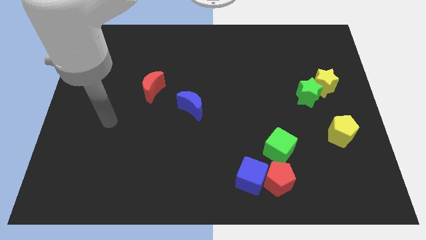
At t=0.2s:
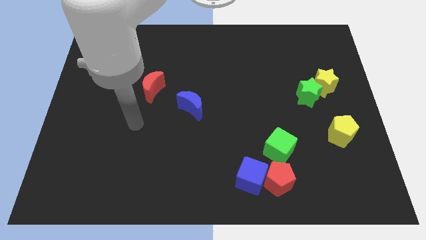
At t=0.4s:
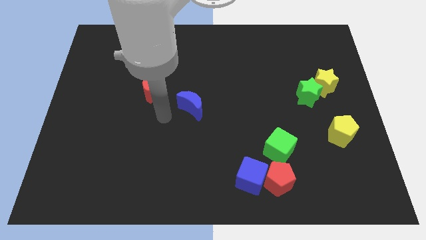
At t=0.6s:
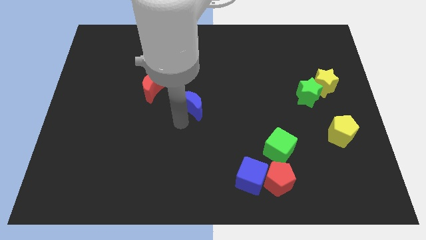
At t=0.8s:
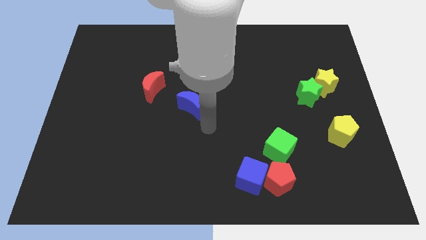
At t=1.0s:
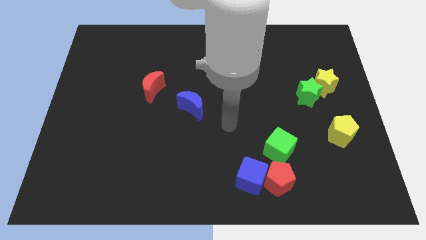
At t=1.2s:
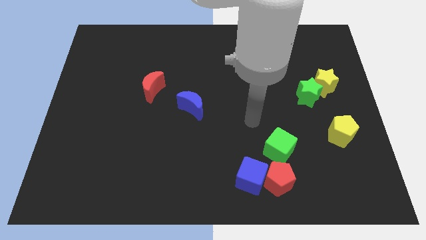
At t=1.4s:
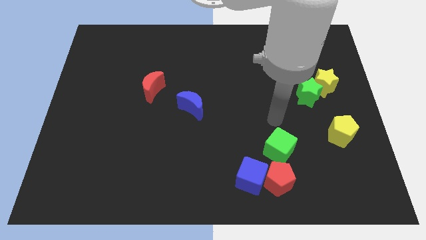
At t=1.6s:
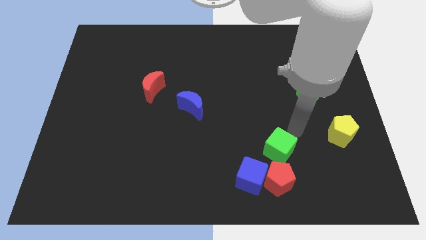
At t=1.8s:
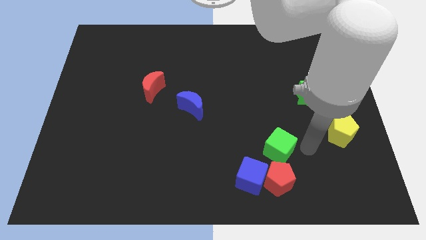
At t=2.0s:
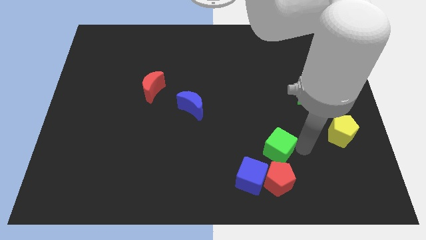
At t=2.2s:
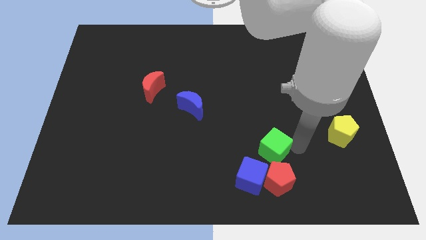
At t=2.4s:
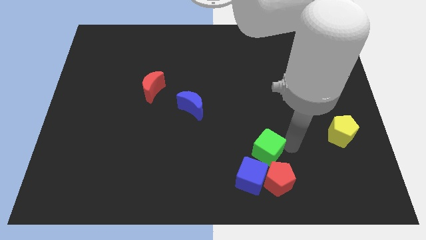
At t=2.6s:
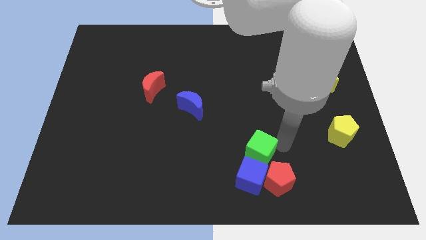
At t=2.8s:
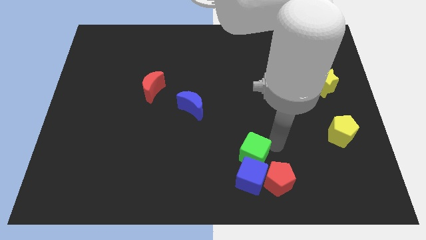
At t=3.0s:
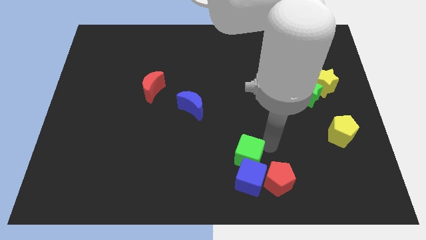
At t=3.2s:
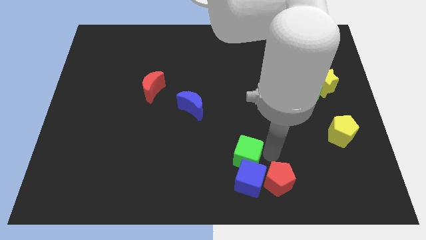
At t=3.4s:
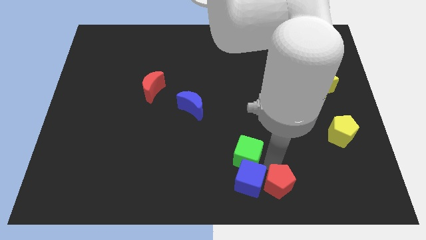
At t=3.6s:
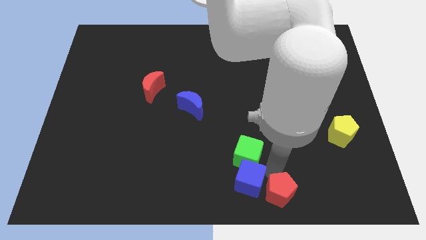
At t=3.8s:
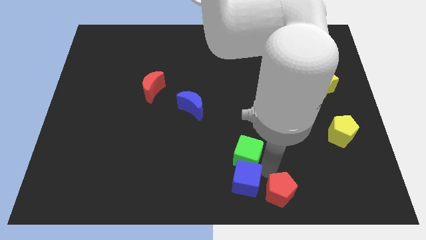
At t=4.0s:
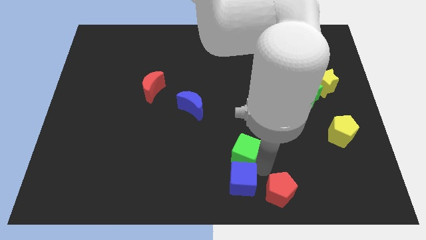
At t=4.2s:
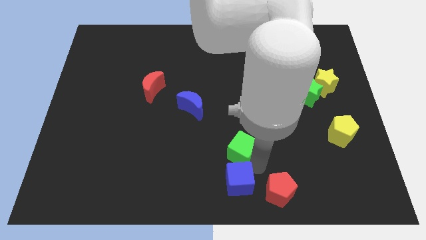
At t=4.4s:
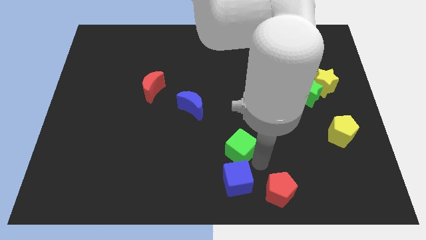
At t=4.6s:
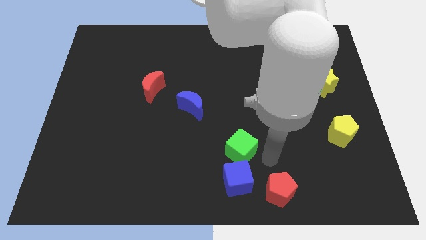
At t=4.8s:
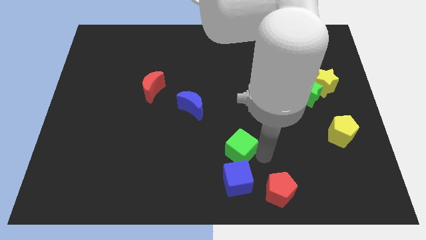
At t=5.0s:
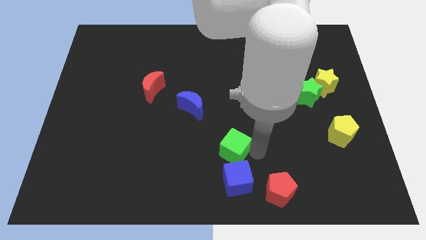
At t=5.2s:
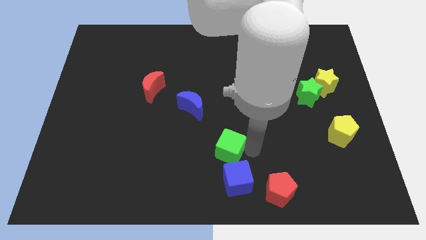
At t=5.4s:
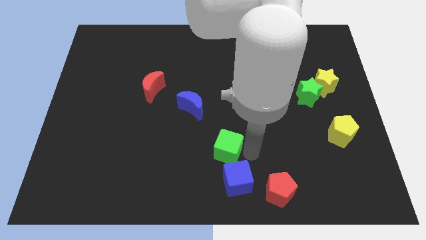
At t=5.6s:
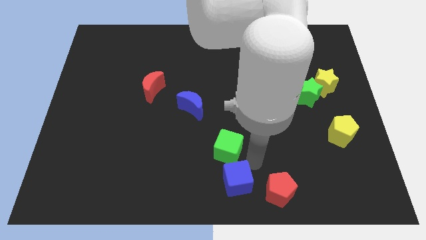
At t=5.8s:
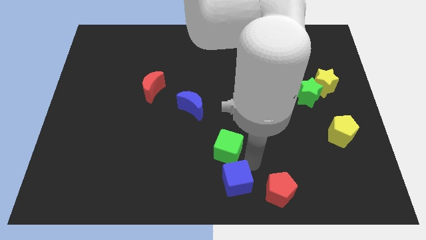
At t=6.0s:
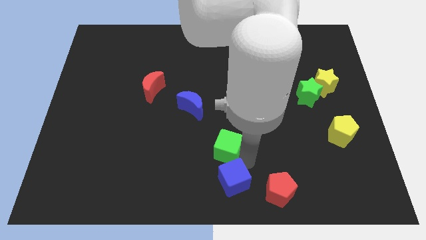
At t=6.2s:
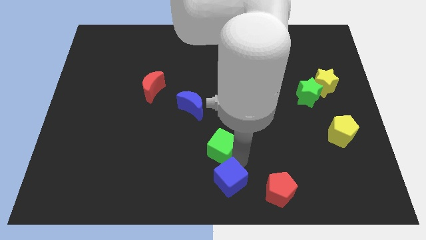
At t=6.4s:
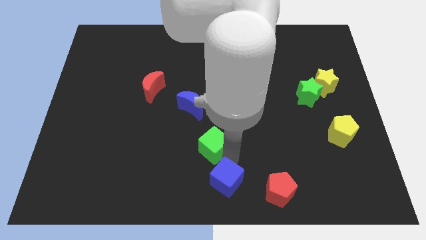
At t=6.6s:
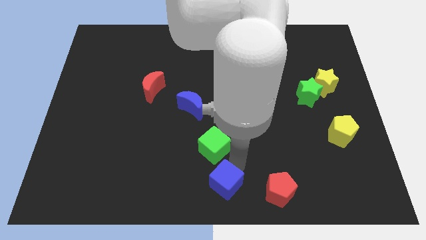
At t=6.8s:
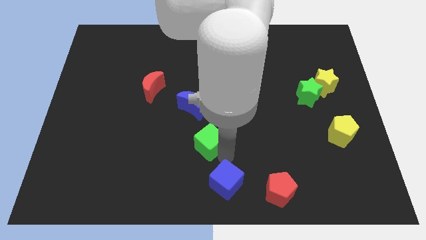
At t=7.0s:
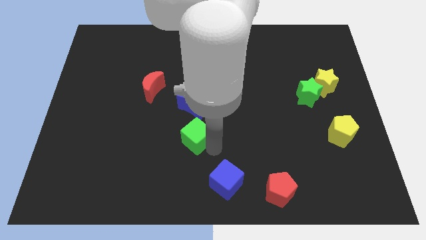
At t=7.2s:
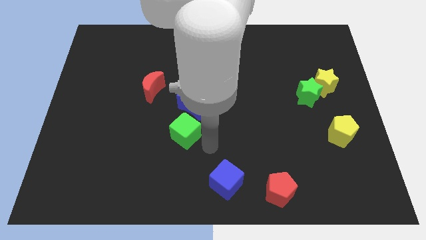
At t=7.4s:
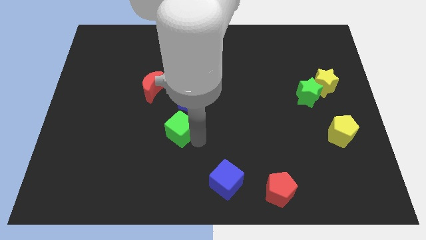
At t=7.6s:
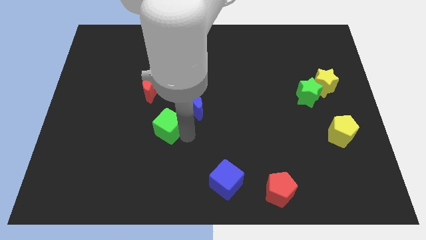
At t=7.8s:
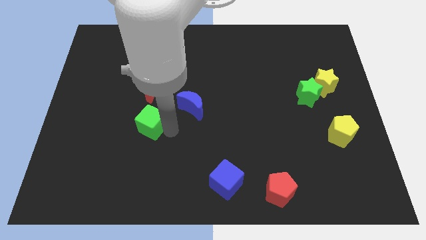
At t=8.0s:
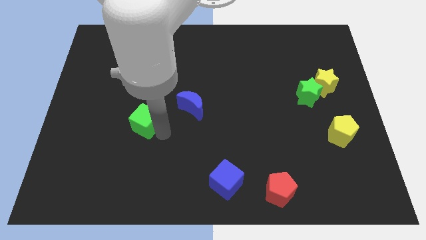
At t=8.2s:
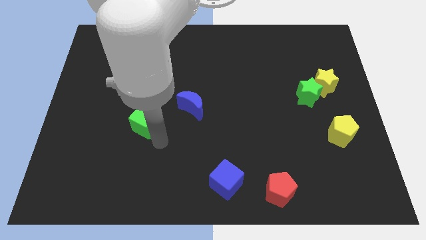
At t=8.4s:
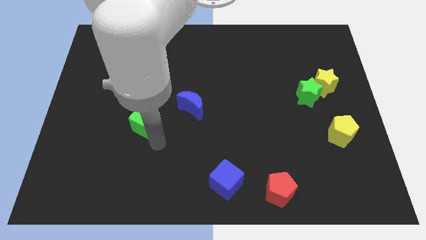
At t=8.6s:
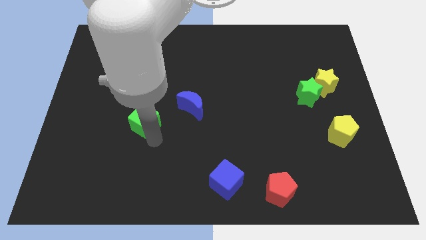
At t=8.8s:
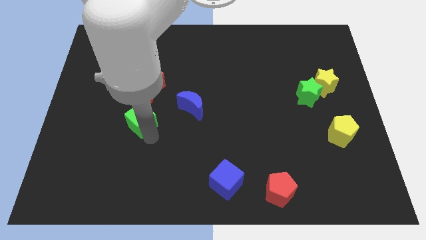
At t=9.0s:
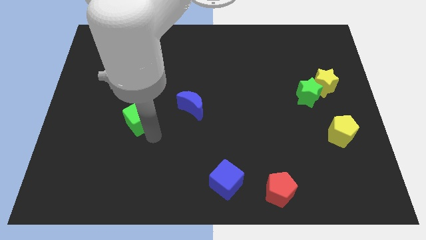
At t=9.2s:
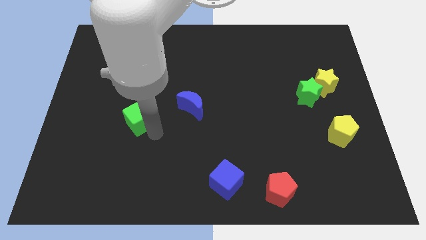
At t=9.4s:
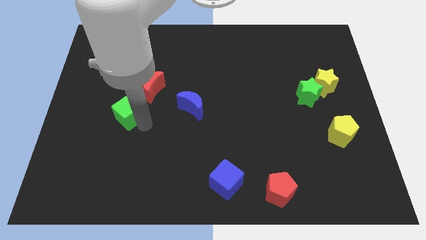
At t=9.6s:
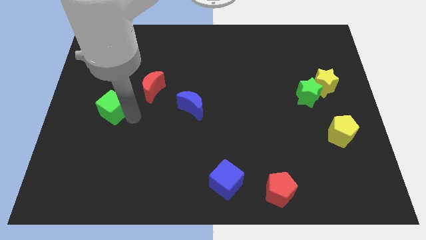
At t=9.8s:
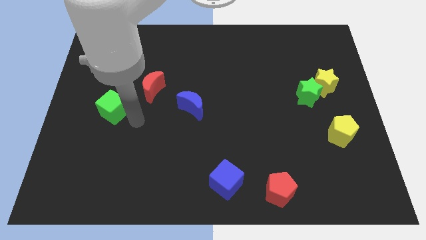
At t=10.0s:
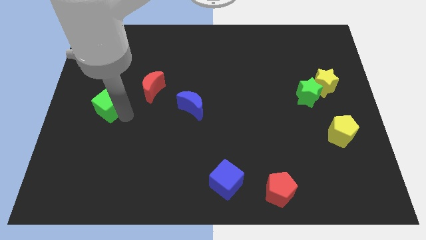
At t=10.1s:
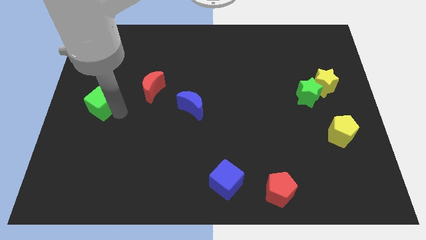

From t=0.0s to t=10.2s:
push the green cube to the left side
